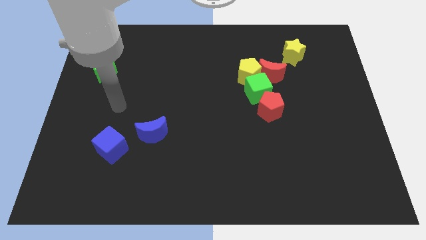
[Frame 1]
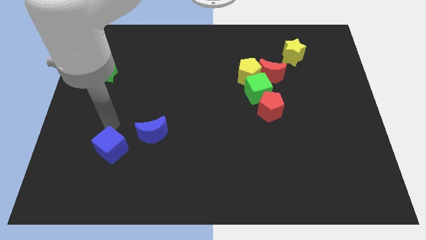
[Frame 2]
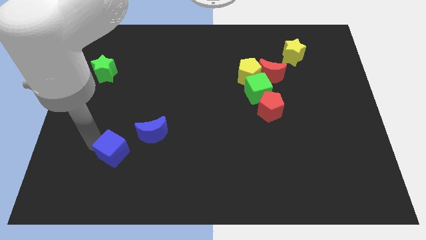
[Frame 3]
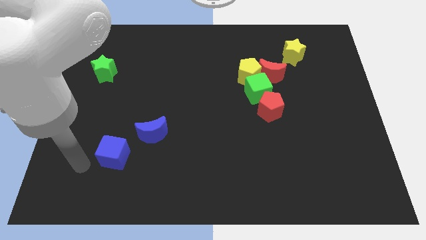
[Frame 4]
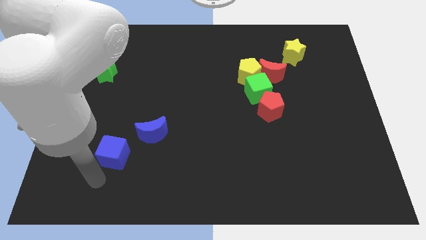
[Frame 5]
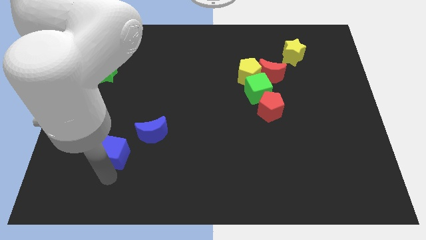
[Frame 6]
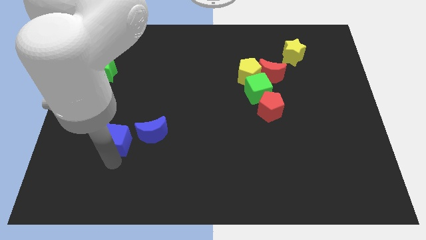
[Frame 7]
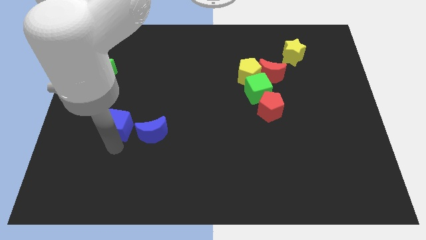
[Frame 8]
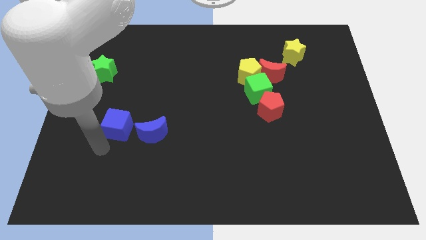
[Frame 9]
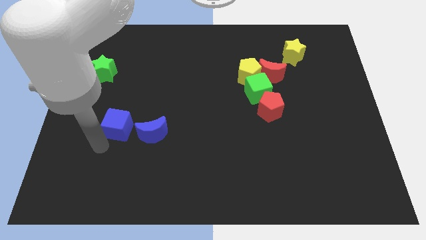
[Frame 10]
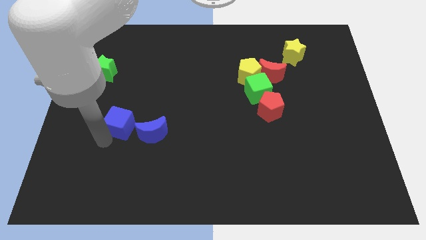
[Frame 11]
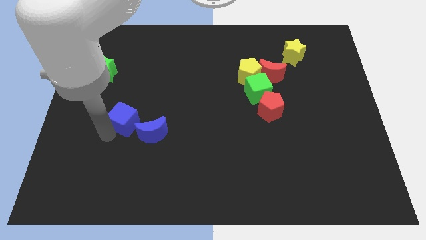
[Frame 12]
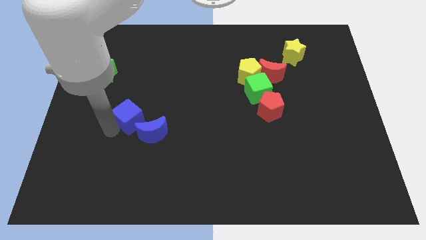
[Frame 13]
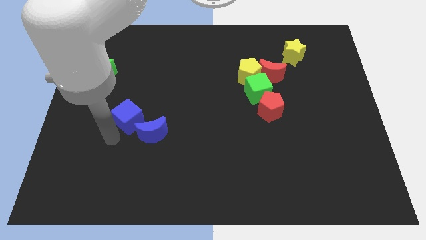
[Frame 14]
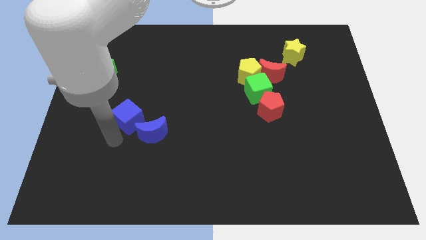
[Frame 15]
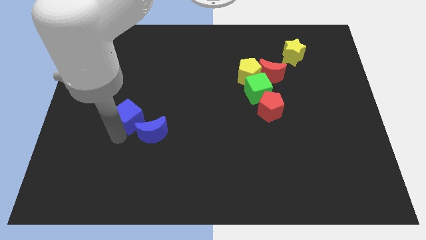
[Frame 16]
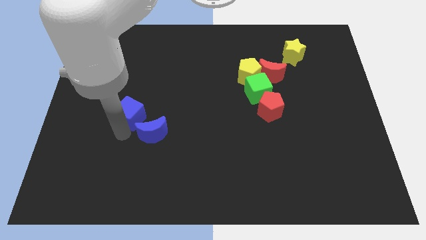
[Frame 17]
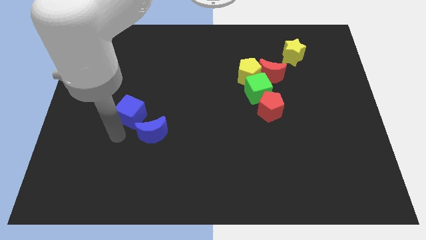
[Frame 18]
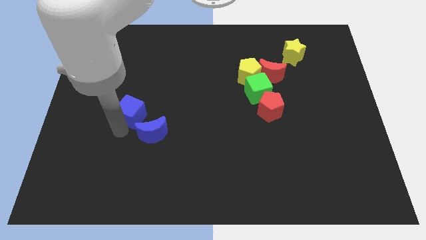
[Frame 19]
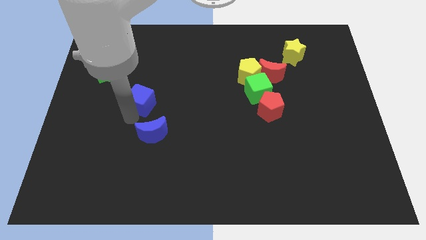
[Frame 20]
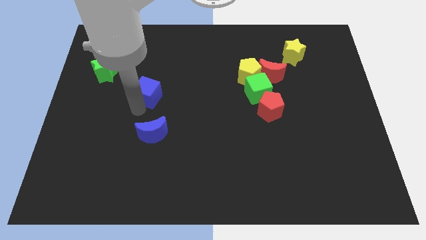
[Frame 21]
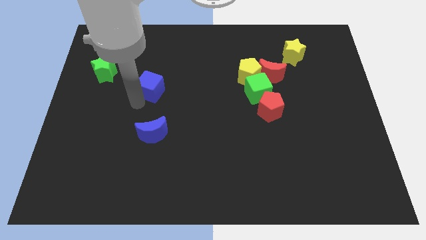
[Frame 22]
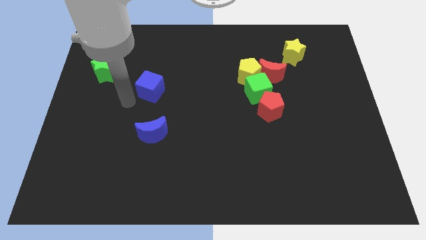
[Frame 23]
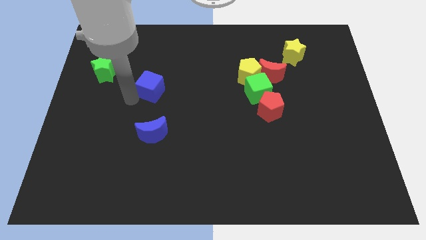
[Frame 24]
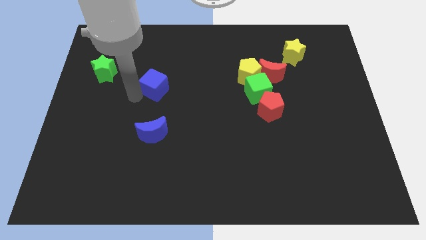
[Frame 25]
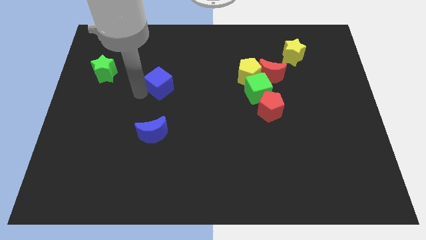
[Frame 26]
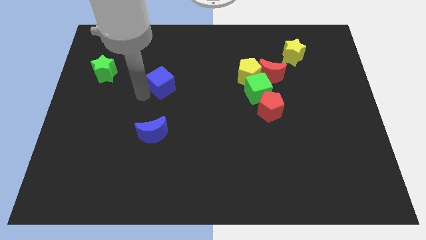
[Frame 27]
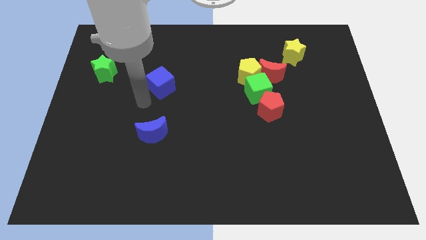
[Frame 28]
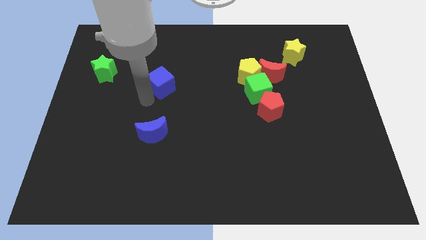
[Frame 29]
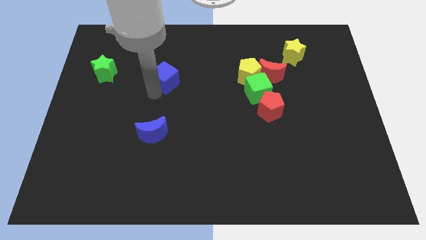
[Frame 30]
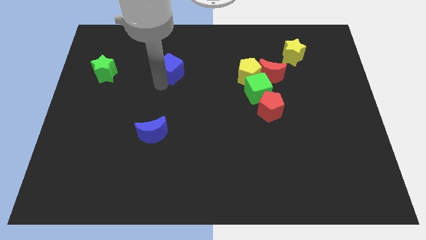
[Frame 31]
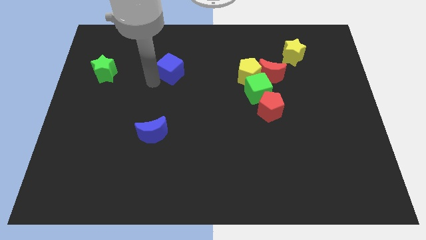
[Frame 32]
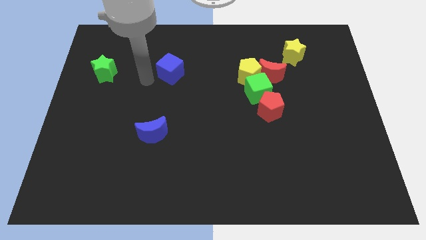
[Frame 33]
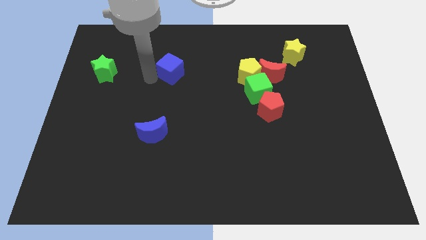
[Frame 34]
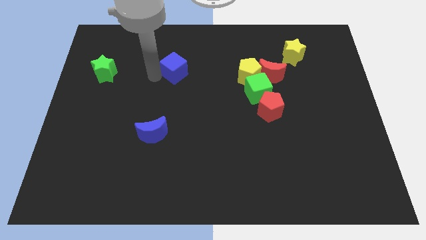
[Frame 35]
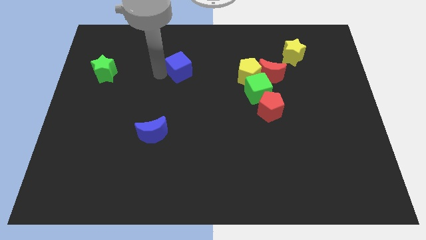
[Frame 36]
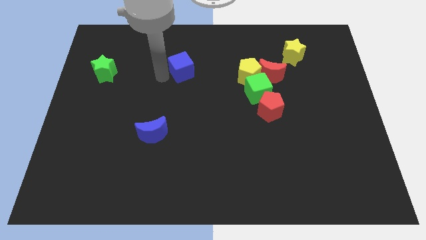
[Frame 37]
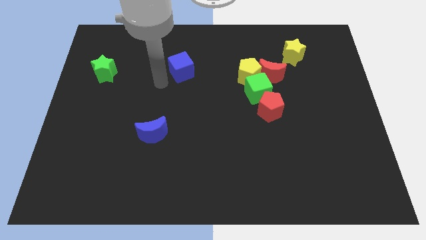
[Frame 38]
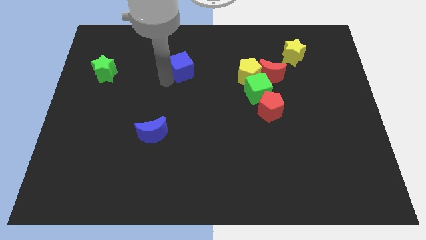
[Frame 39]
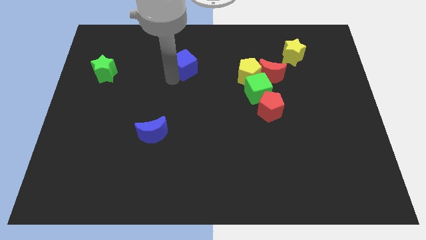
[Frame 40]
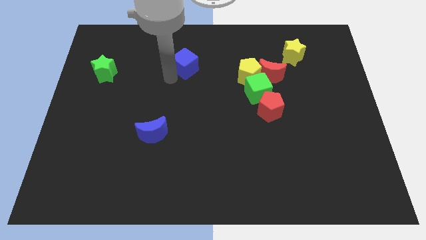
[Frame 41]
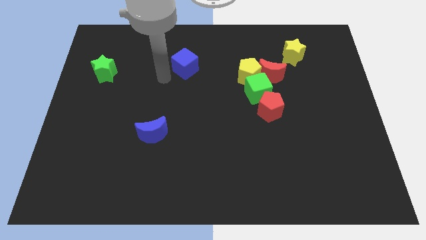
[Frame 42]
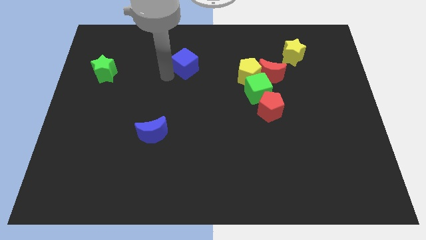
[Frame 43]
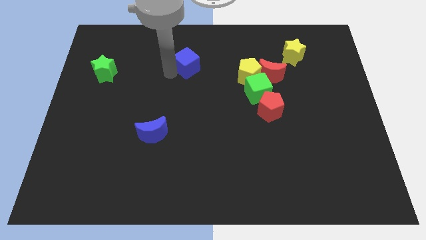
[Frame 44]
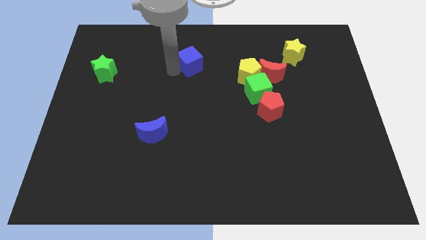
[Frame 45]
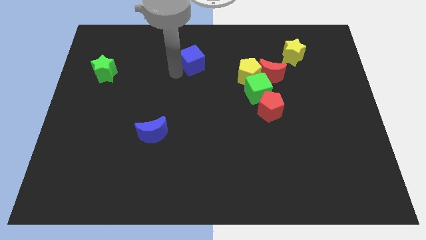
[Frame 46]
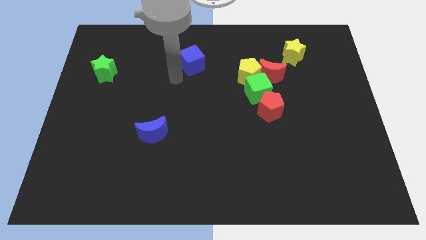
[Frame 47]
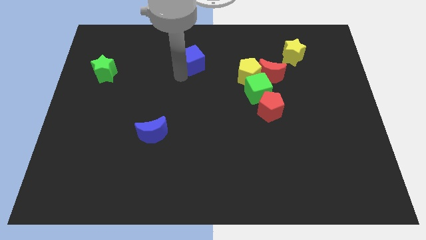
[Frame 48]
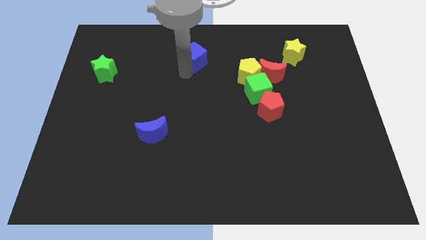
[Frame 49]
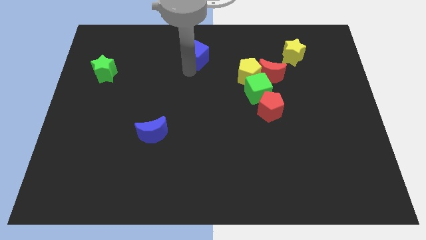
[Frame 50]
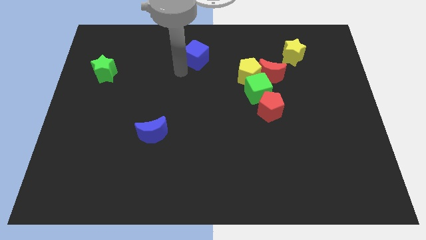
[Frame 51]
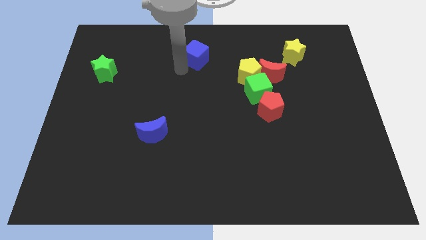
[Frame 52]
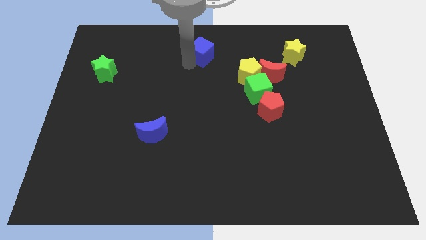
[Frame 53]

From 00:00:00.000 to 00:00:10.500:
put the blue cube to the top side

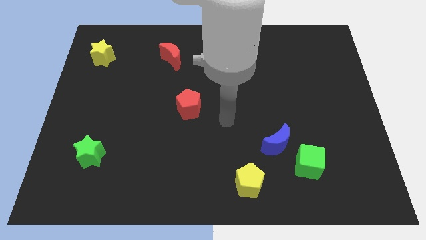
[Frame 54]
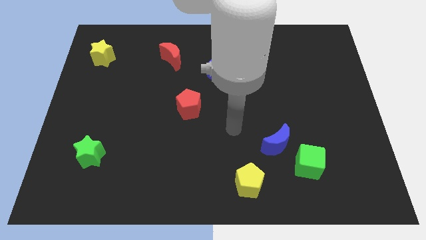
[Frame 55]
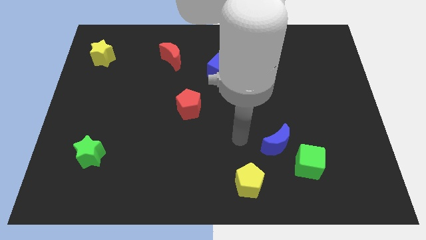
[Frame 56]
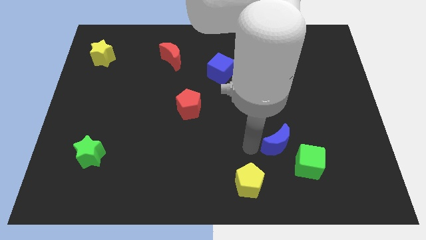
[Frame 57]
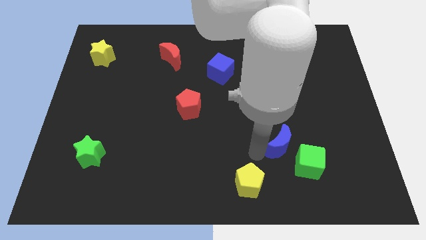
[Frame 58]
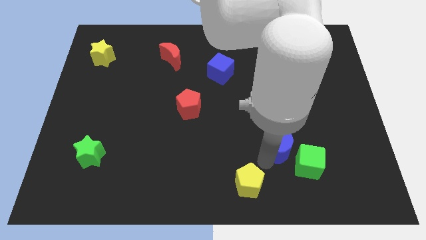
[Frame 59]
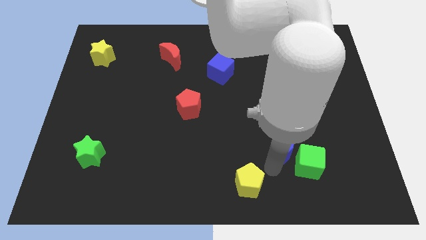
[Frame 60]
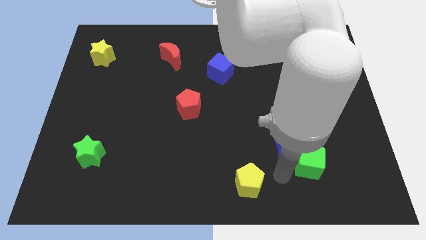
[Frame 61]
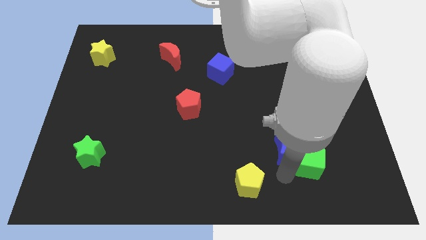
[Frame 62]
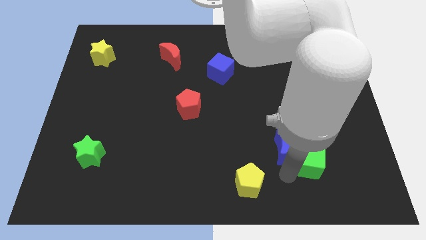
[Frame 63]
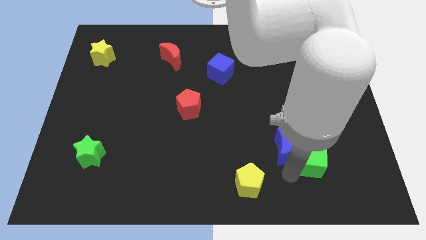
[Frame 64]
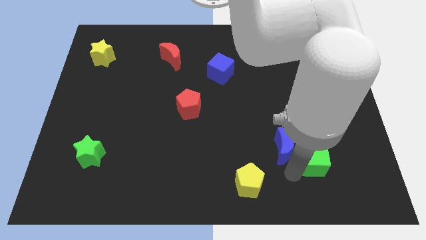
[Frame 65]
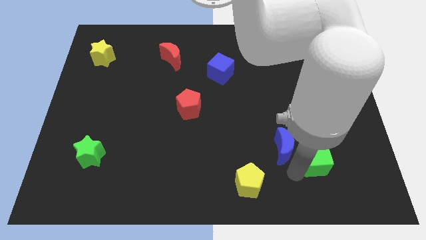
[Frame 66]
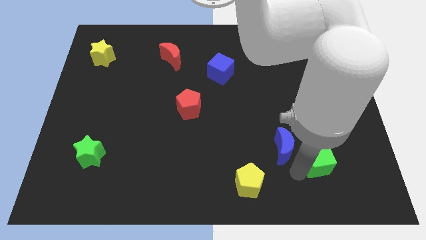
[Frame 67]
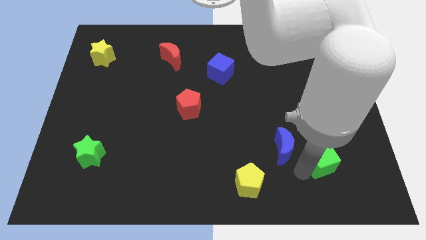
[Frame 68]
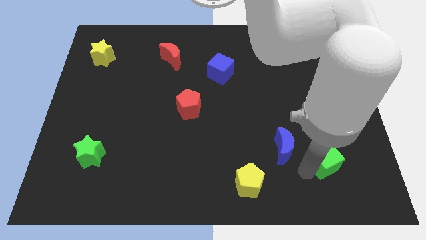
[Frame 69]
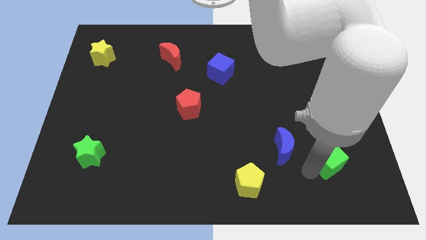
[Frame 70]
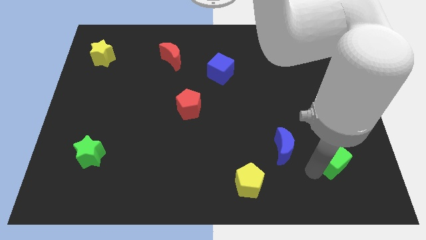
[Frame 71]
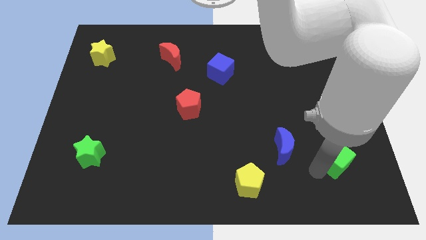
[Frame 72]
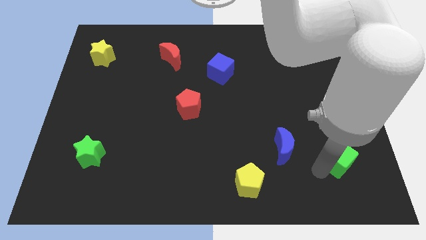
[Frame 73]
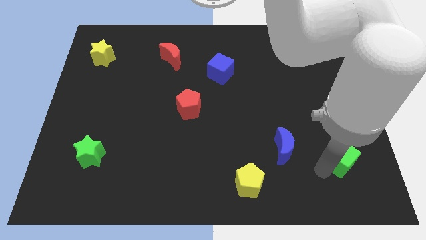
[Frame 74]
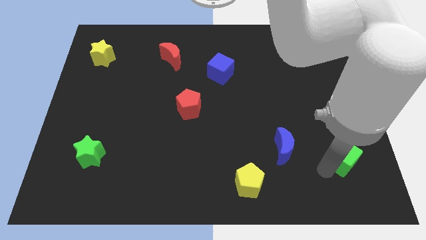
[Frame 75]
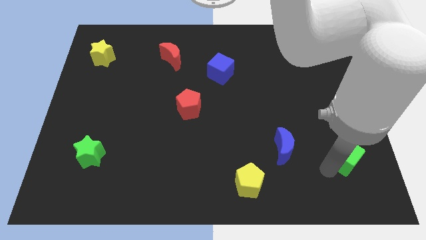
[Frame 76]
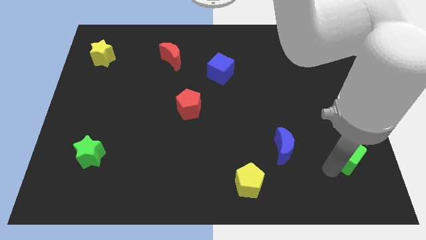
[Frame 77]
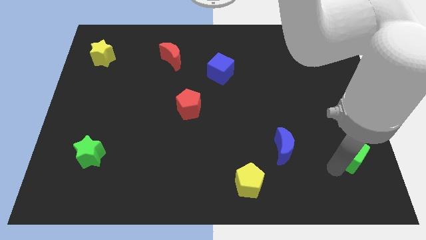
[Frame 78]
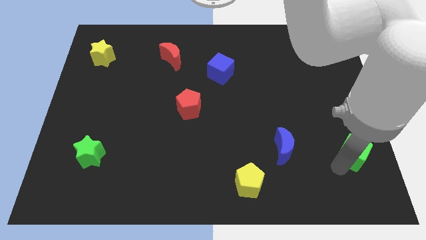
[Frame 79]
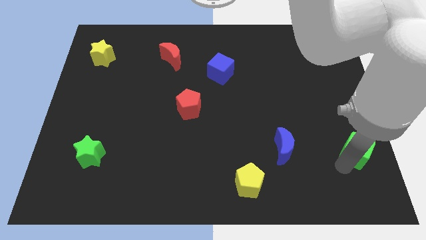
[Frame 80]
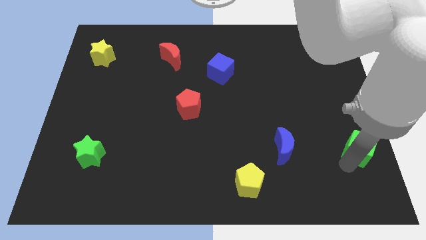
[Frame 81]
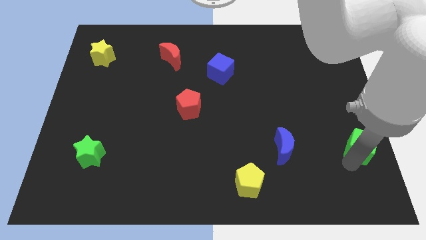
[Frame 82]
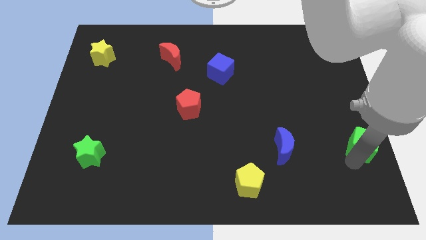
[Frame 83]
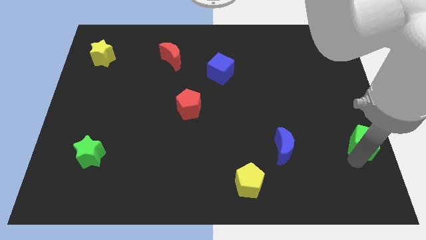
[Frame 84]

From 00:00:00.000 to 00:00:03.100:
put the green cube to the right side
